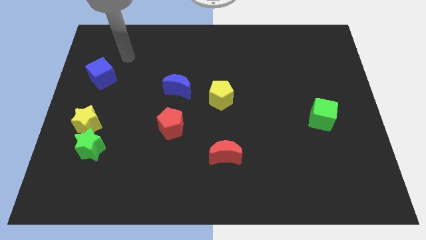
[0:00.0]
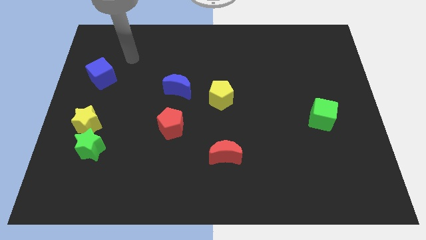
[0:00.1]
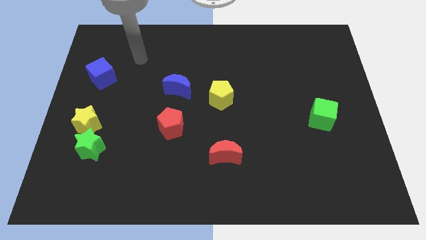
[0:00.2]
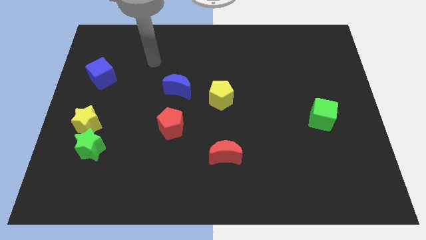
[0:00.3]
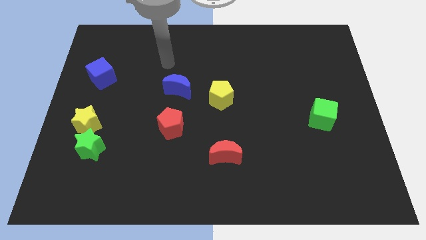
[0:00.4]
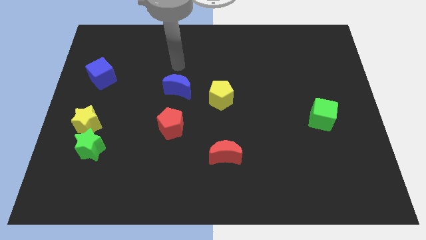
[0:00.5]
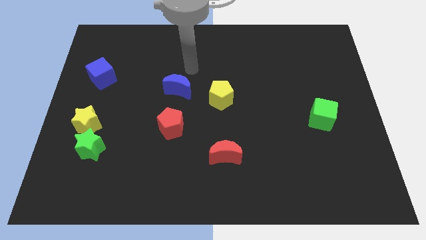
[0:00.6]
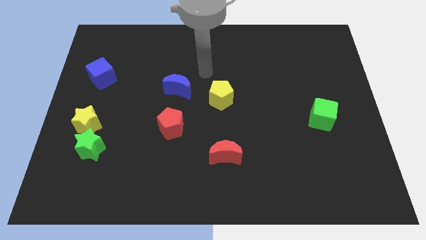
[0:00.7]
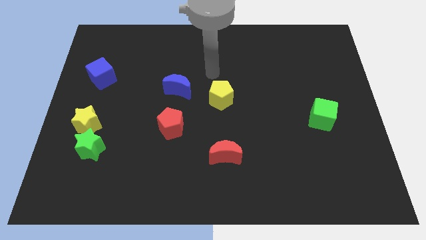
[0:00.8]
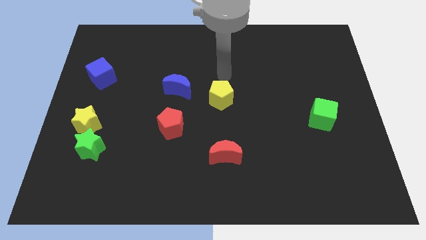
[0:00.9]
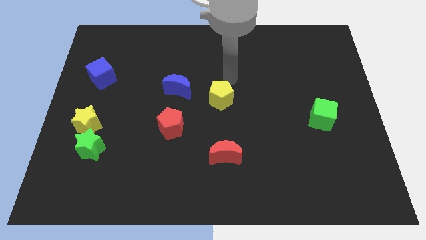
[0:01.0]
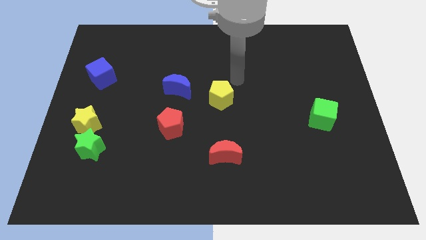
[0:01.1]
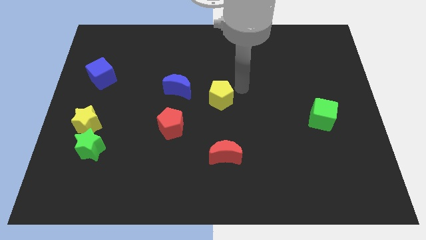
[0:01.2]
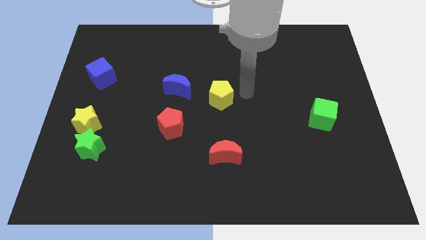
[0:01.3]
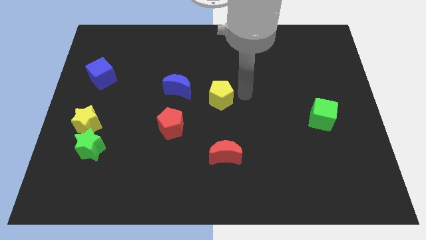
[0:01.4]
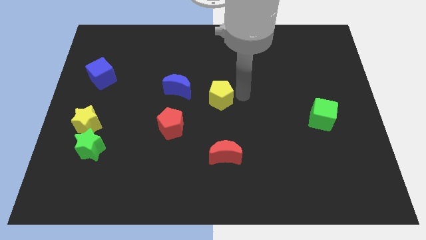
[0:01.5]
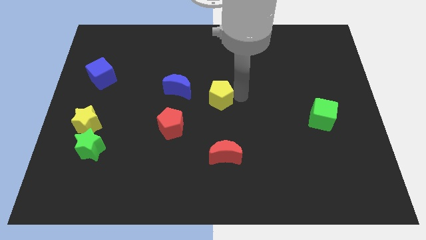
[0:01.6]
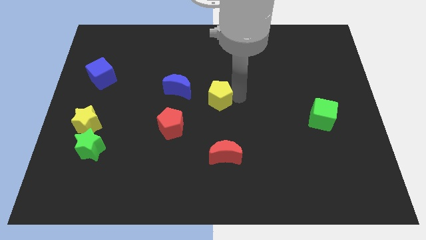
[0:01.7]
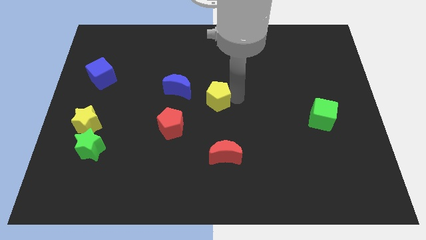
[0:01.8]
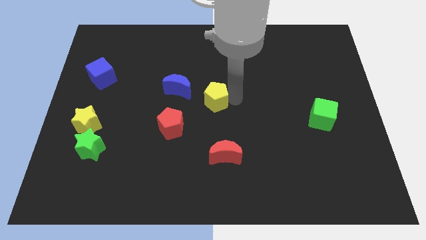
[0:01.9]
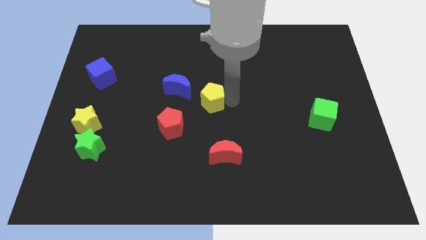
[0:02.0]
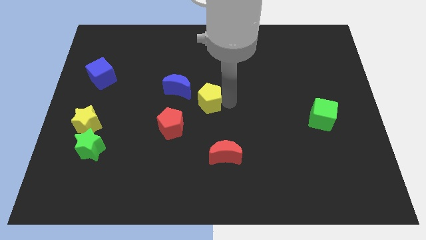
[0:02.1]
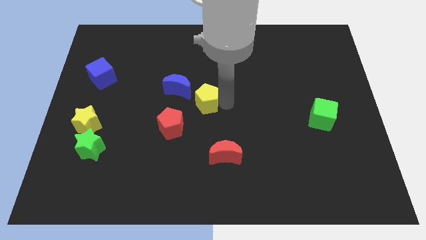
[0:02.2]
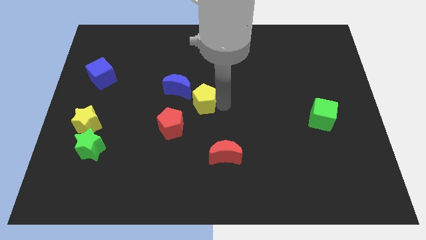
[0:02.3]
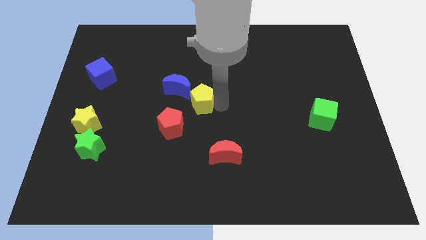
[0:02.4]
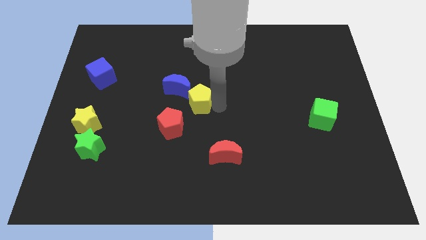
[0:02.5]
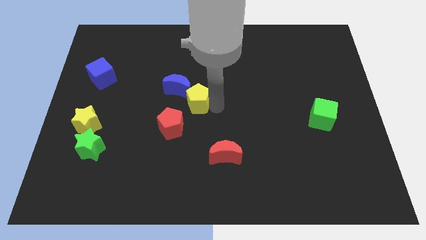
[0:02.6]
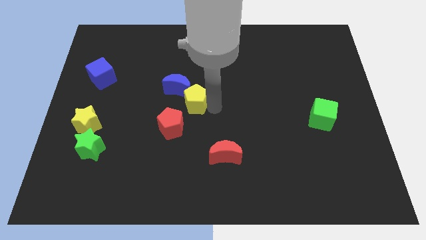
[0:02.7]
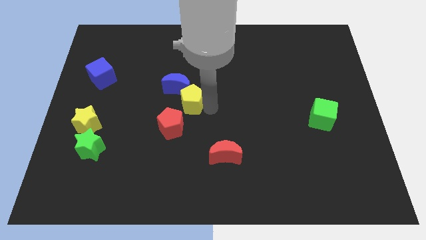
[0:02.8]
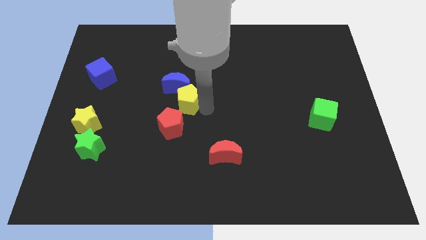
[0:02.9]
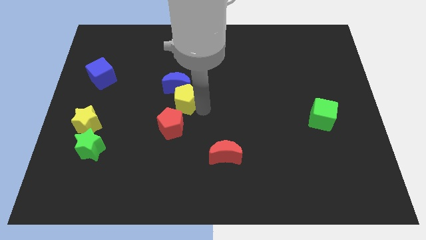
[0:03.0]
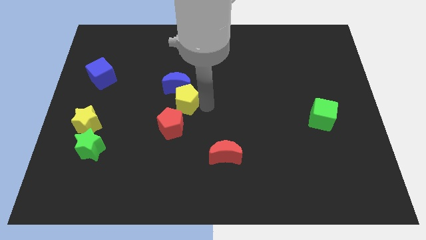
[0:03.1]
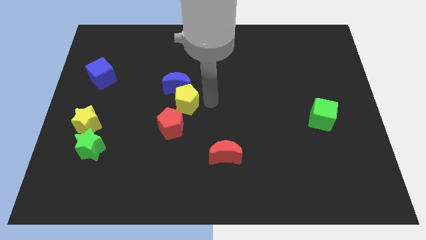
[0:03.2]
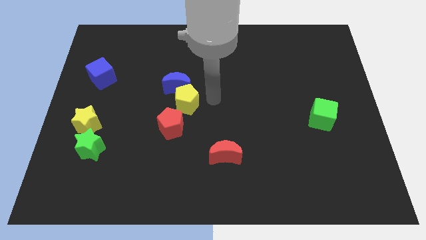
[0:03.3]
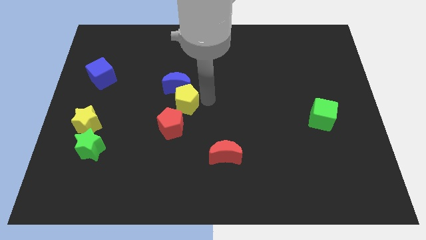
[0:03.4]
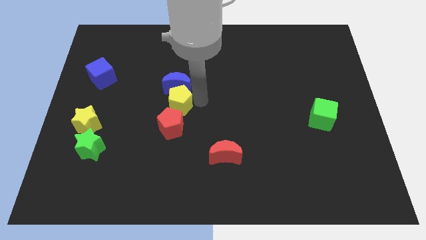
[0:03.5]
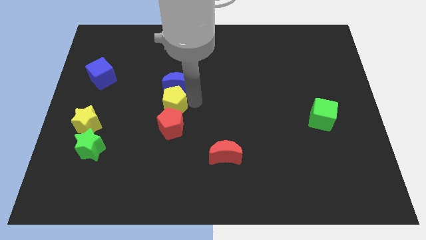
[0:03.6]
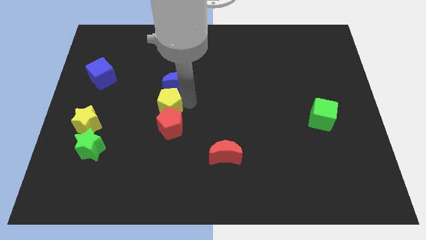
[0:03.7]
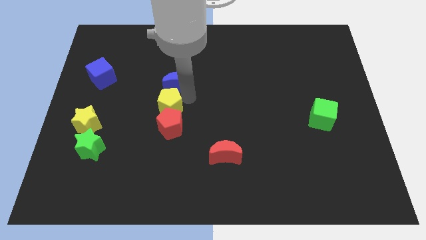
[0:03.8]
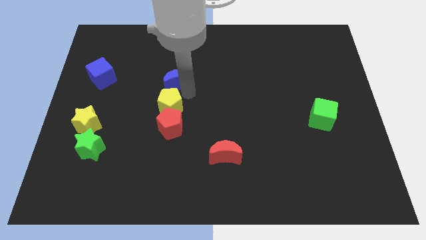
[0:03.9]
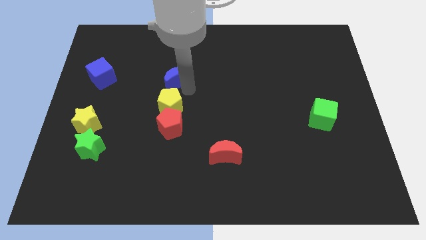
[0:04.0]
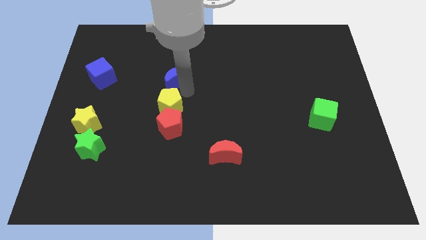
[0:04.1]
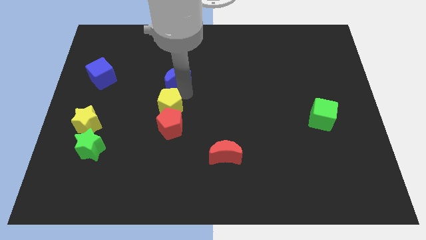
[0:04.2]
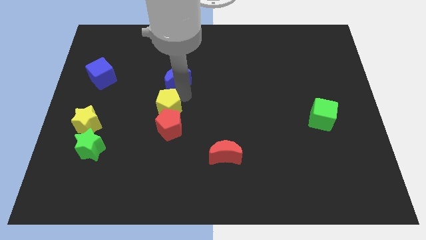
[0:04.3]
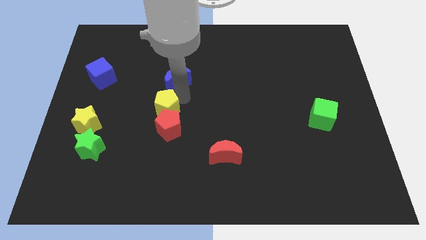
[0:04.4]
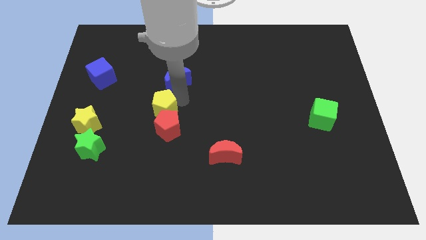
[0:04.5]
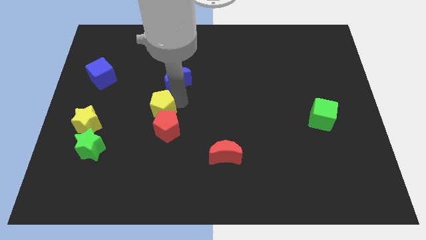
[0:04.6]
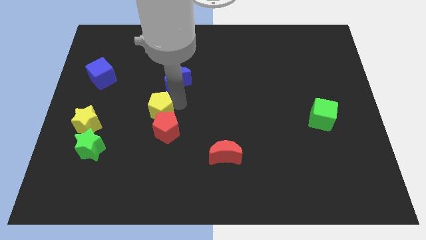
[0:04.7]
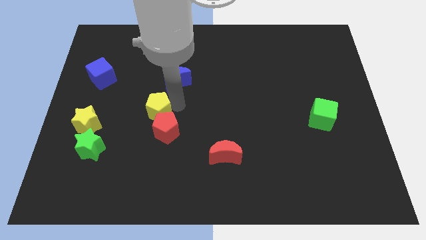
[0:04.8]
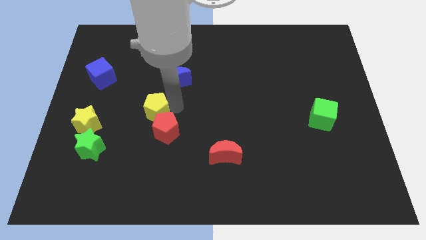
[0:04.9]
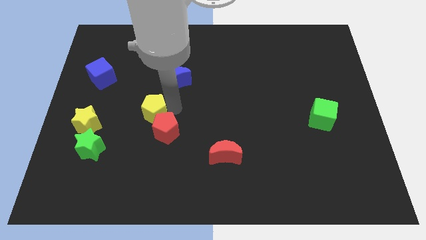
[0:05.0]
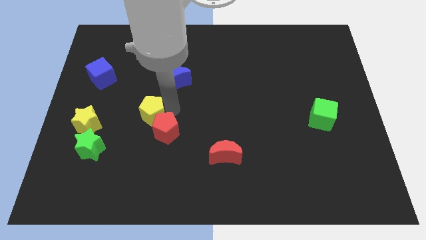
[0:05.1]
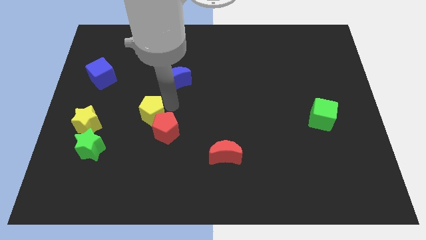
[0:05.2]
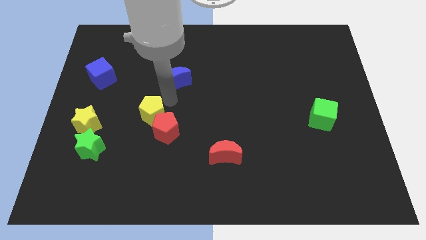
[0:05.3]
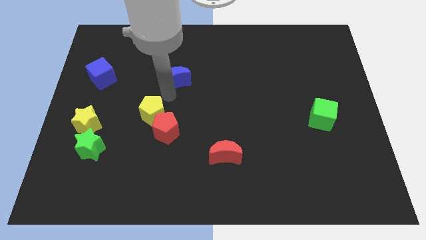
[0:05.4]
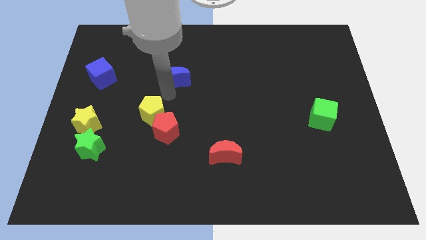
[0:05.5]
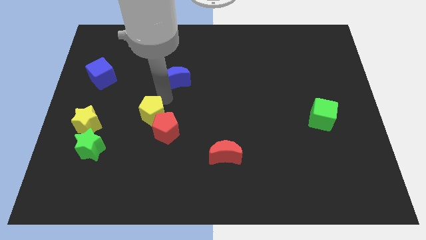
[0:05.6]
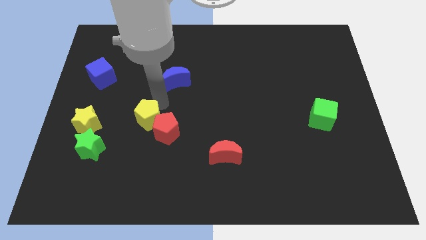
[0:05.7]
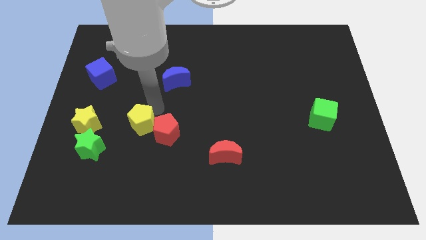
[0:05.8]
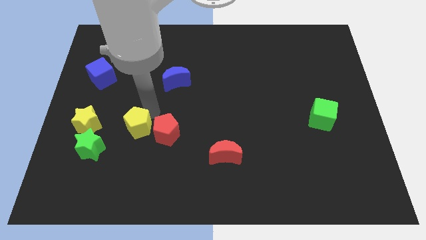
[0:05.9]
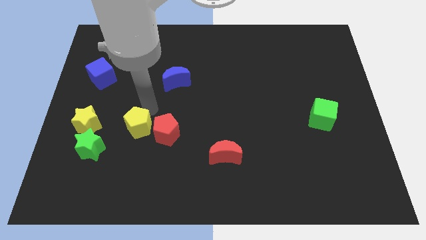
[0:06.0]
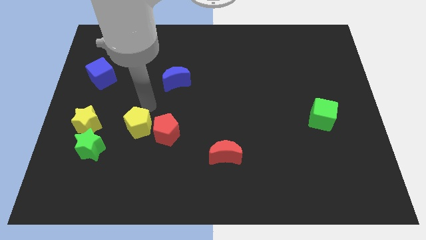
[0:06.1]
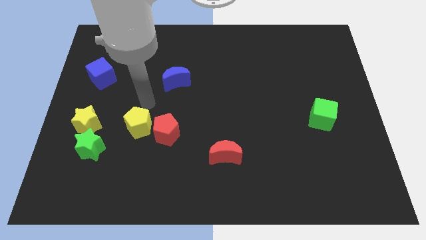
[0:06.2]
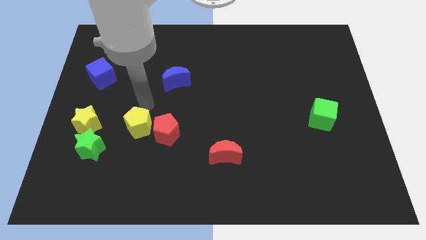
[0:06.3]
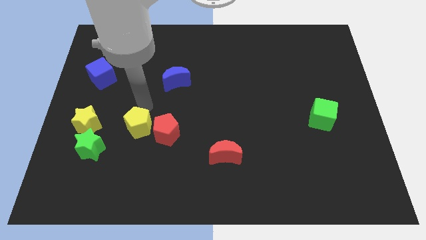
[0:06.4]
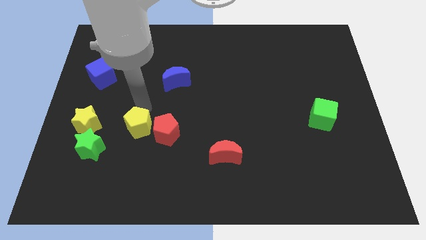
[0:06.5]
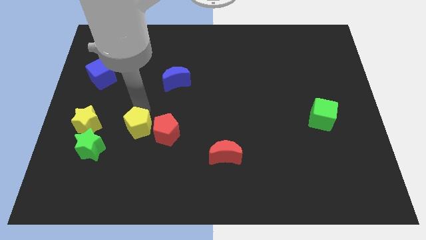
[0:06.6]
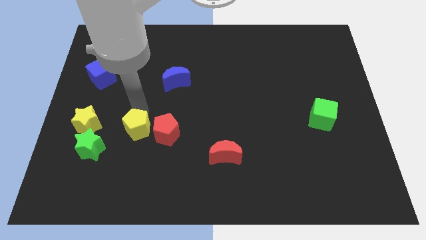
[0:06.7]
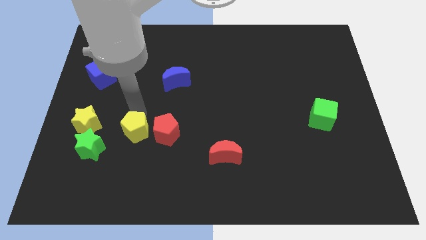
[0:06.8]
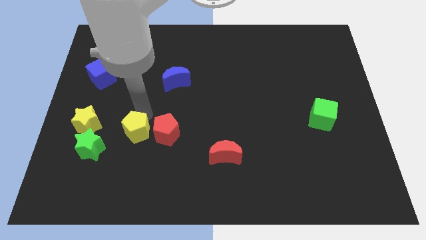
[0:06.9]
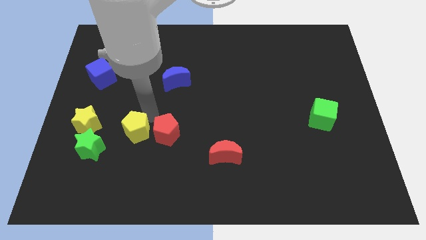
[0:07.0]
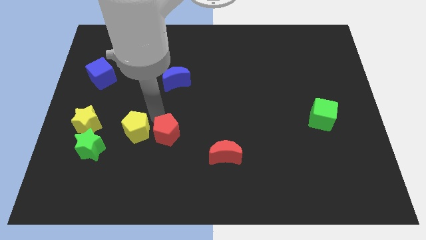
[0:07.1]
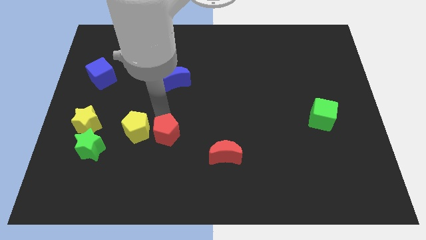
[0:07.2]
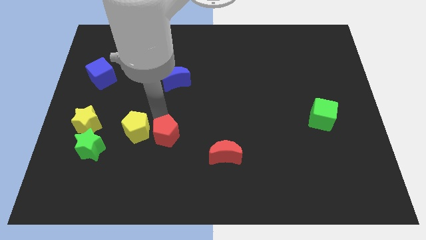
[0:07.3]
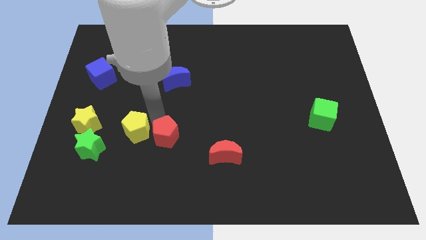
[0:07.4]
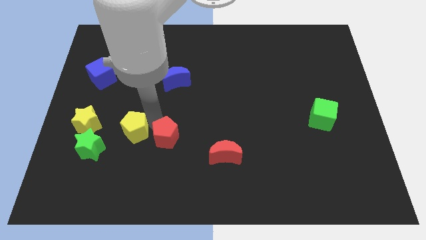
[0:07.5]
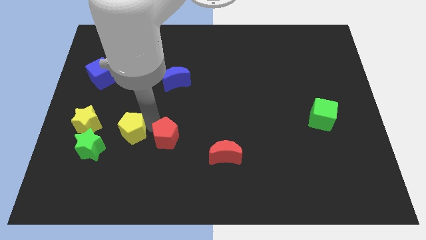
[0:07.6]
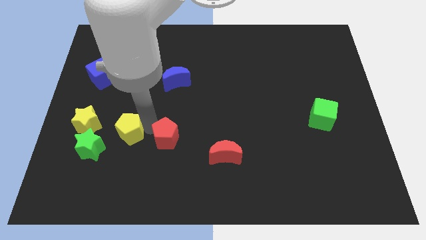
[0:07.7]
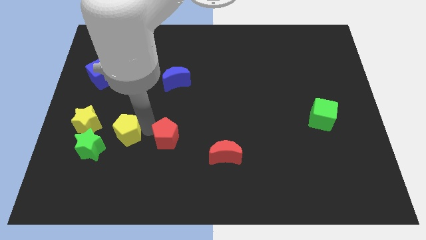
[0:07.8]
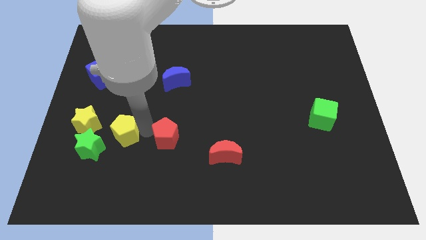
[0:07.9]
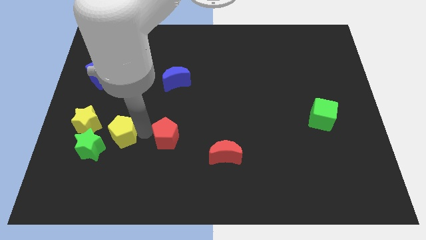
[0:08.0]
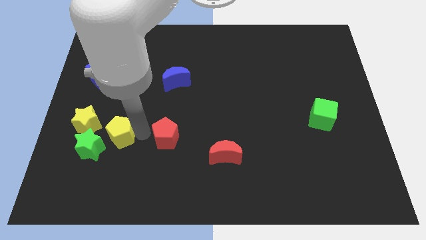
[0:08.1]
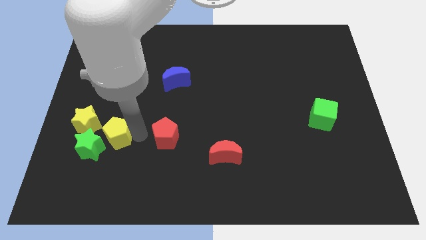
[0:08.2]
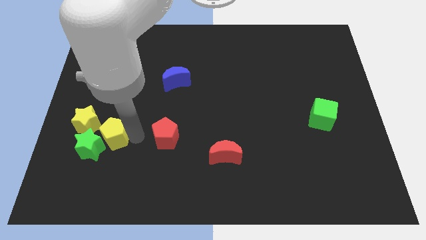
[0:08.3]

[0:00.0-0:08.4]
slide the yellow pentagon close to the green star
